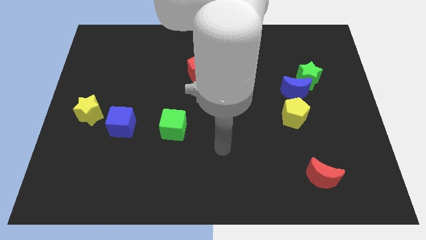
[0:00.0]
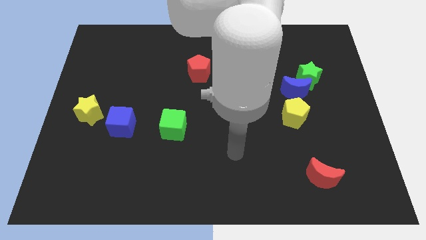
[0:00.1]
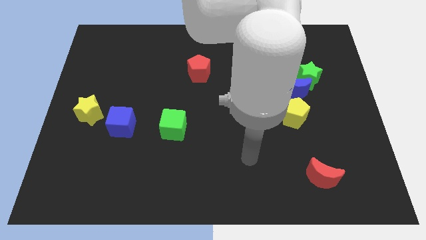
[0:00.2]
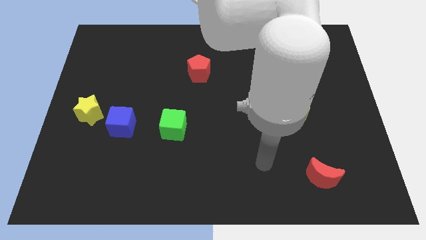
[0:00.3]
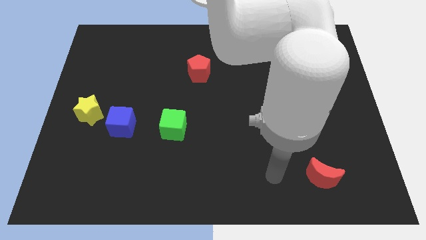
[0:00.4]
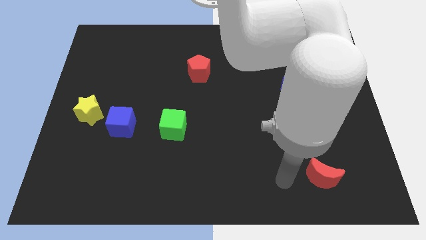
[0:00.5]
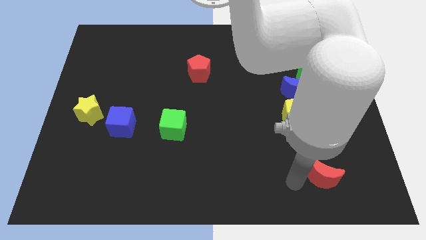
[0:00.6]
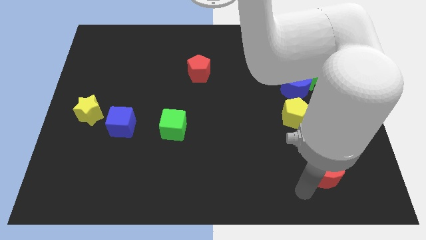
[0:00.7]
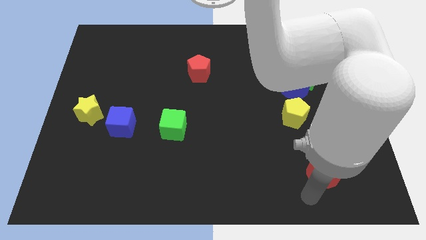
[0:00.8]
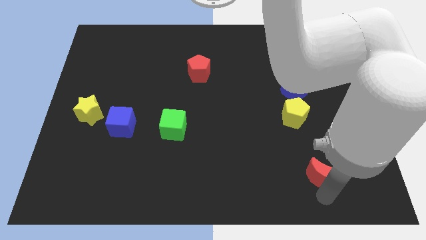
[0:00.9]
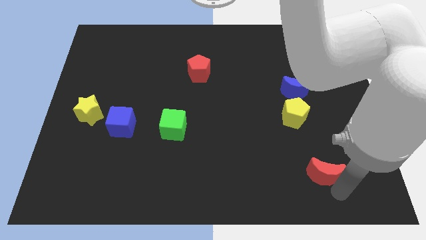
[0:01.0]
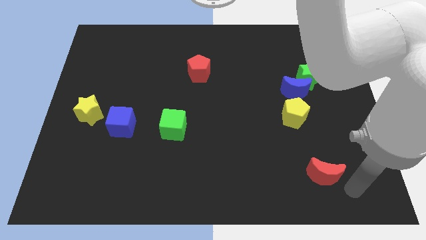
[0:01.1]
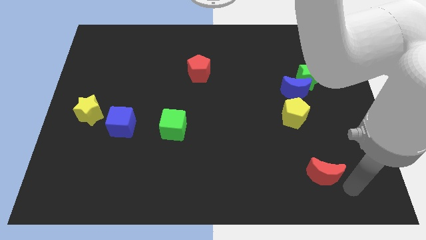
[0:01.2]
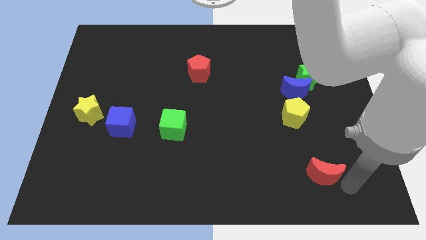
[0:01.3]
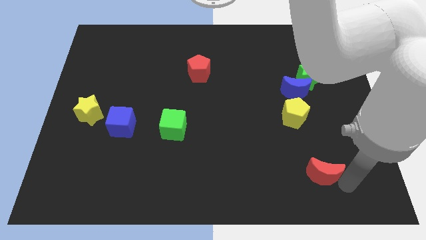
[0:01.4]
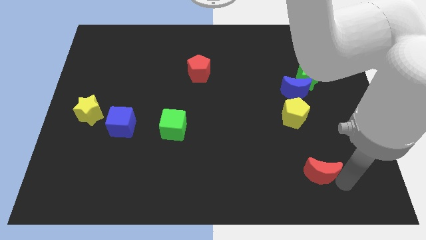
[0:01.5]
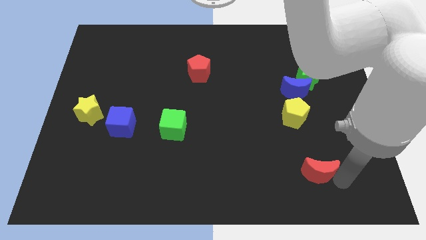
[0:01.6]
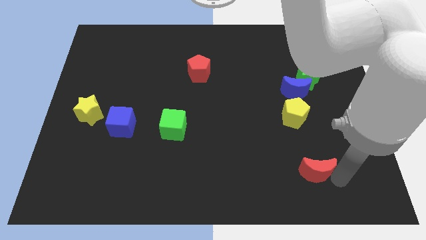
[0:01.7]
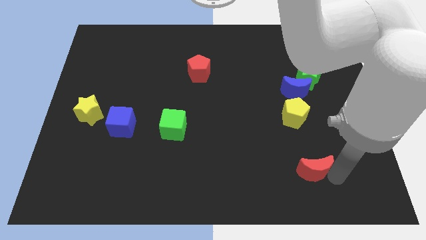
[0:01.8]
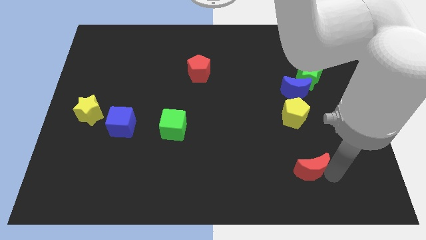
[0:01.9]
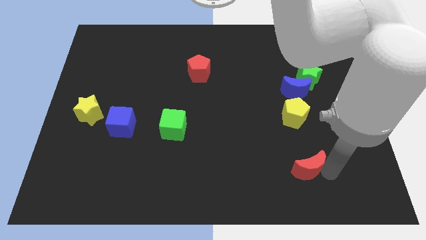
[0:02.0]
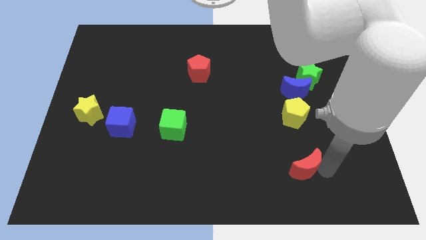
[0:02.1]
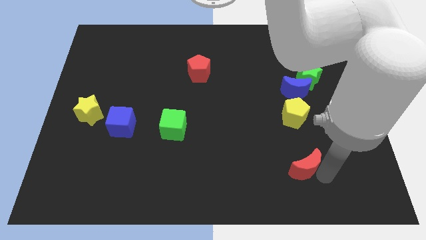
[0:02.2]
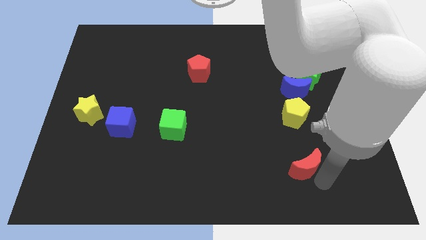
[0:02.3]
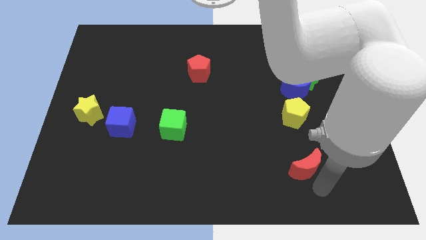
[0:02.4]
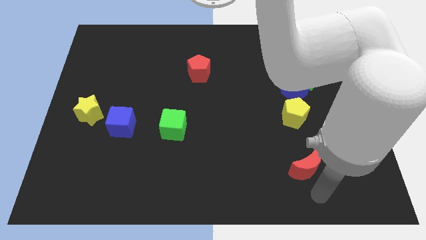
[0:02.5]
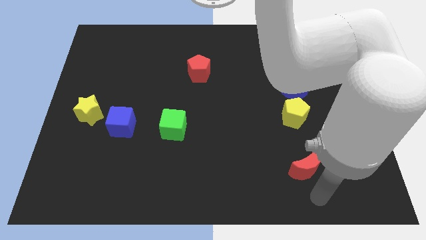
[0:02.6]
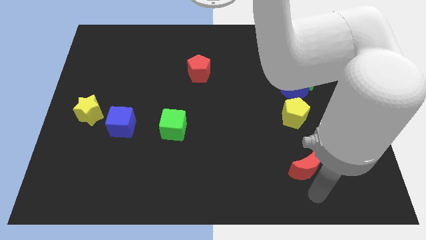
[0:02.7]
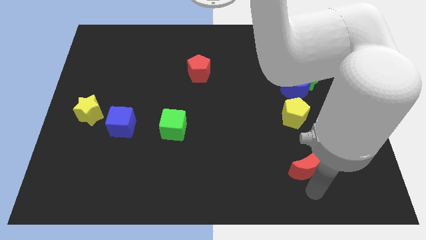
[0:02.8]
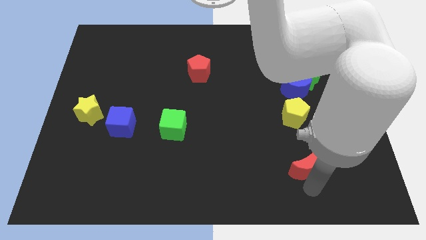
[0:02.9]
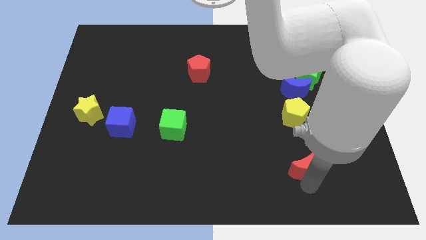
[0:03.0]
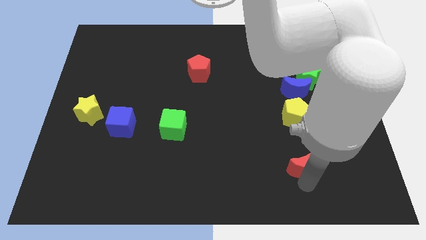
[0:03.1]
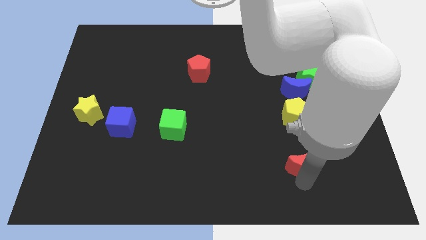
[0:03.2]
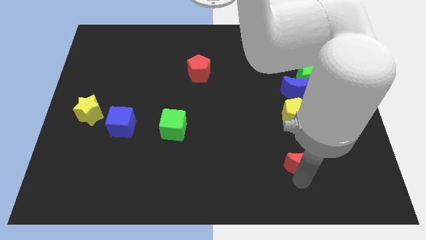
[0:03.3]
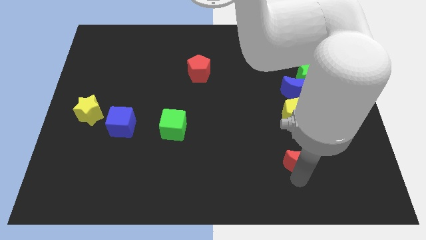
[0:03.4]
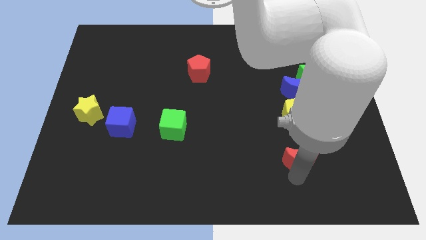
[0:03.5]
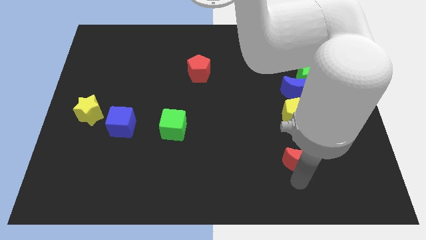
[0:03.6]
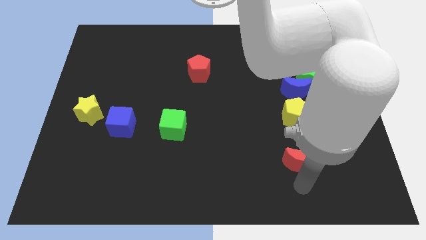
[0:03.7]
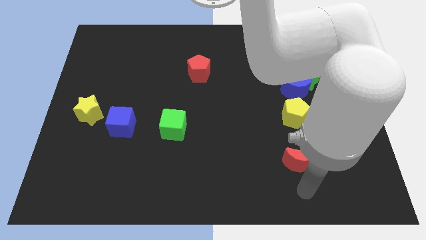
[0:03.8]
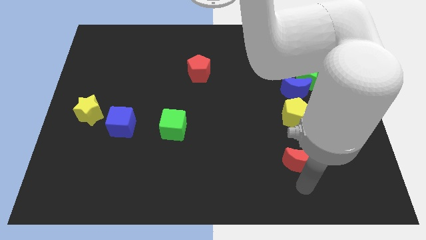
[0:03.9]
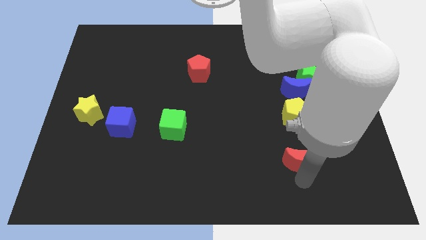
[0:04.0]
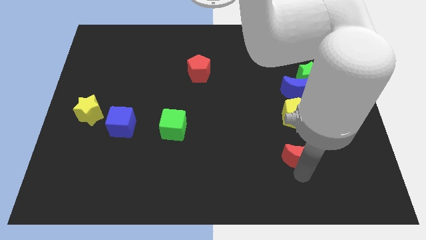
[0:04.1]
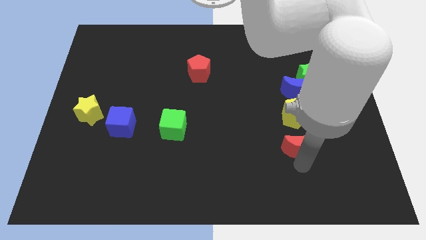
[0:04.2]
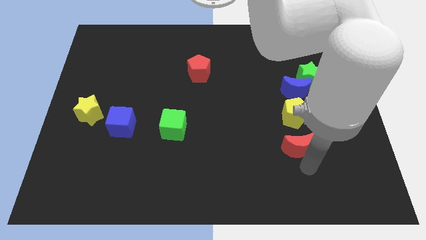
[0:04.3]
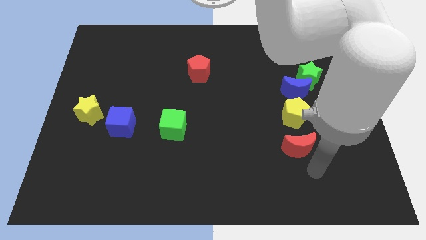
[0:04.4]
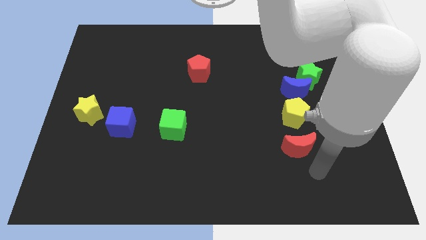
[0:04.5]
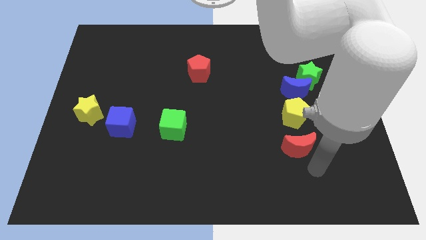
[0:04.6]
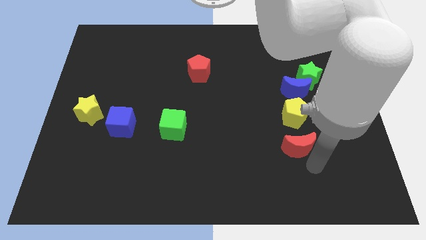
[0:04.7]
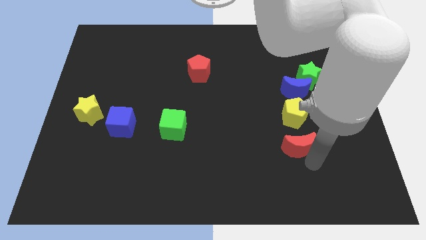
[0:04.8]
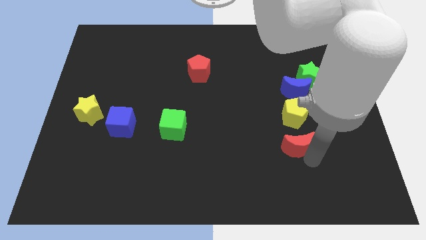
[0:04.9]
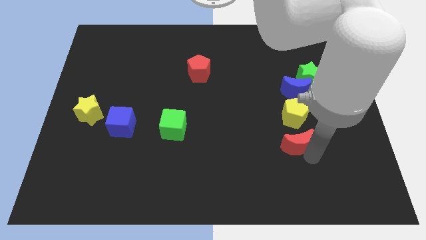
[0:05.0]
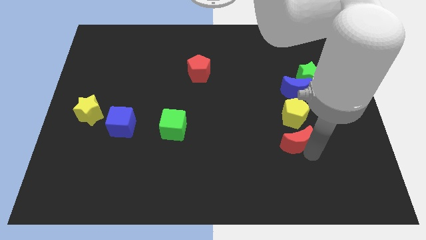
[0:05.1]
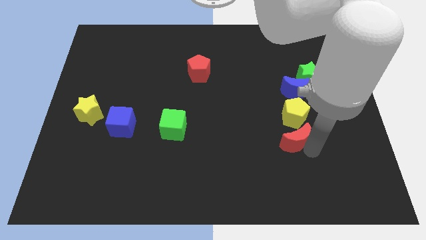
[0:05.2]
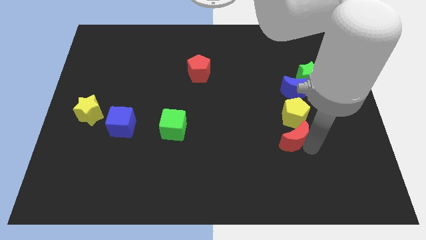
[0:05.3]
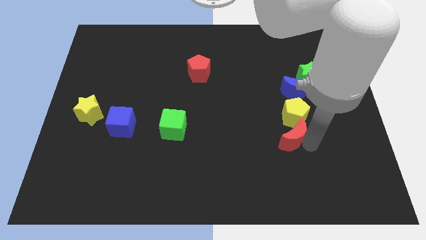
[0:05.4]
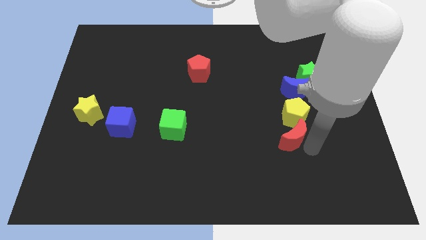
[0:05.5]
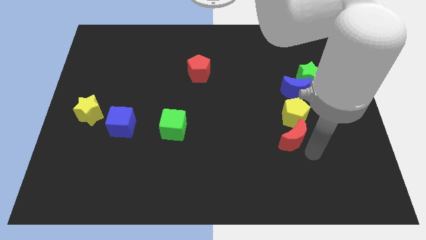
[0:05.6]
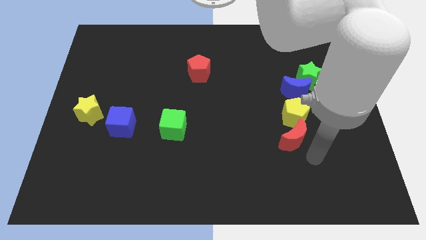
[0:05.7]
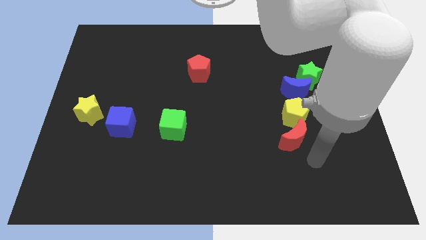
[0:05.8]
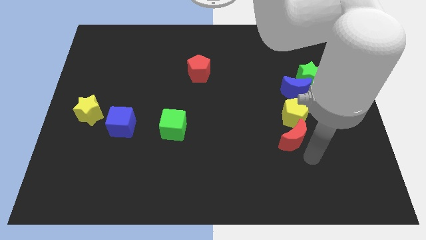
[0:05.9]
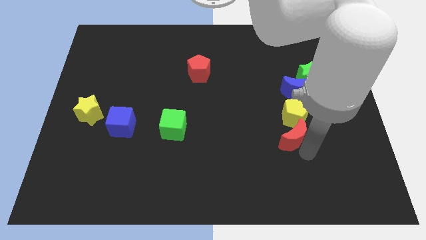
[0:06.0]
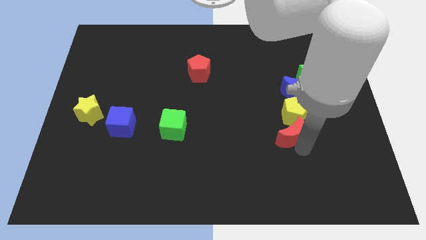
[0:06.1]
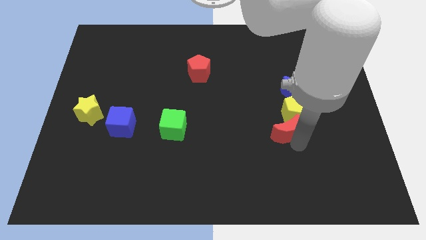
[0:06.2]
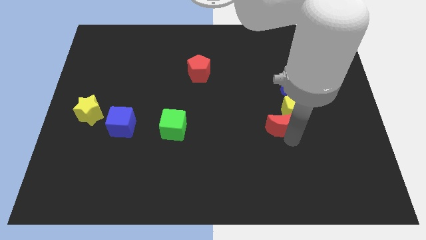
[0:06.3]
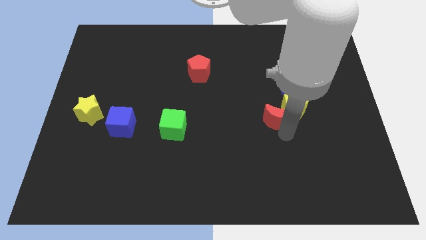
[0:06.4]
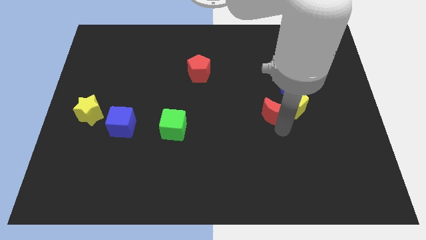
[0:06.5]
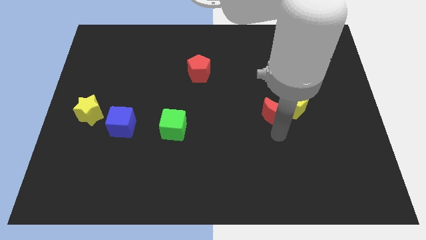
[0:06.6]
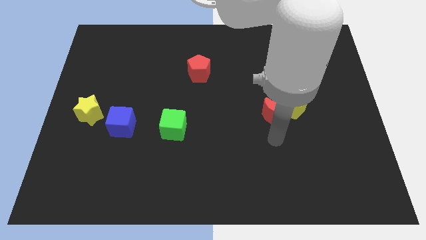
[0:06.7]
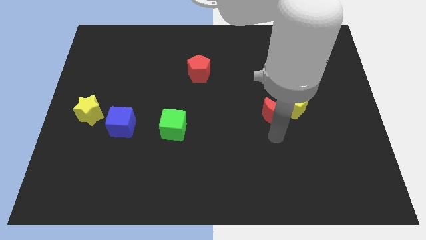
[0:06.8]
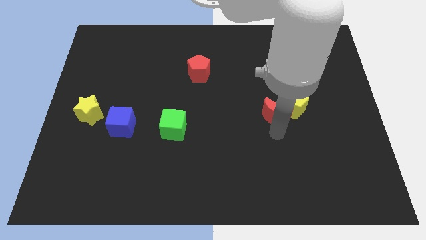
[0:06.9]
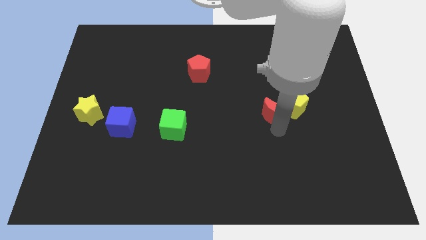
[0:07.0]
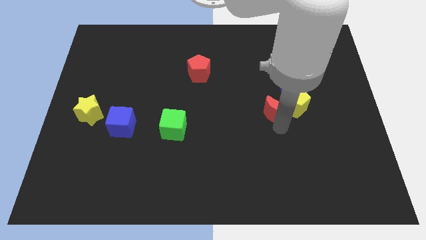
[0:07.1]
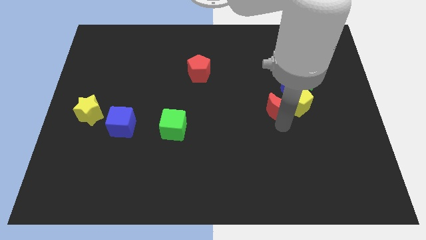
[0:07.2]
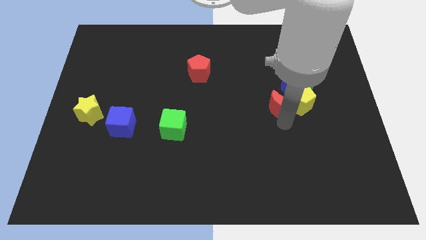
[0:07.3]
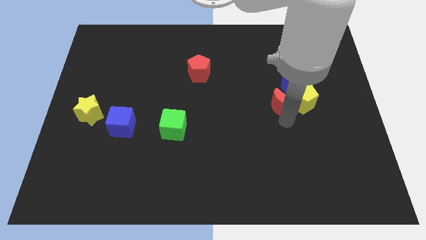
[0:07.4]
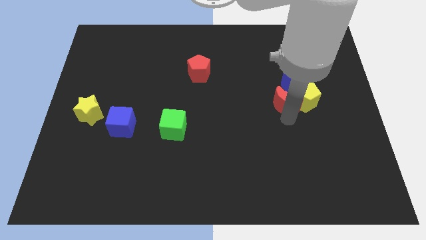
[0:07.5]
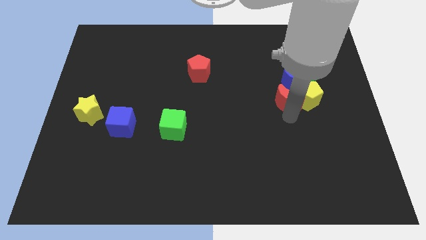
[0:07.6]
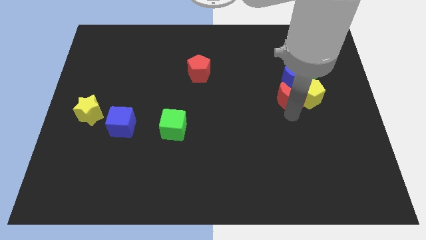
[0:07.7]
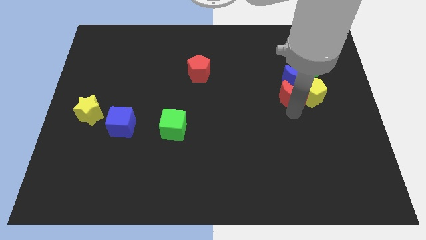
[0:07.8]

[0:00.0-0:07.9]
push the red moon up

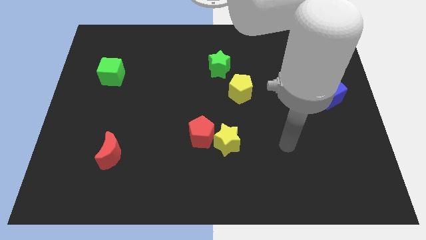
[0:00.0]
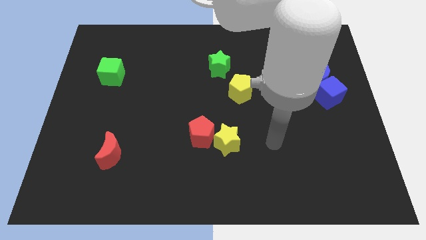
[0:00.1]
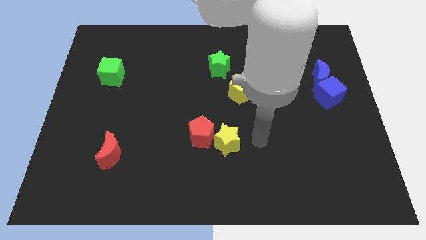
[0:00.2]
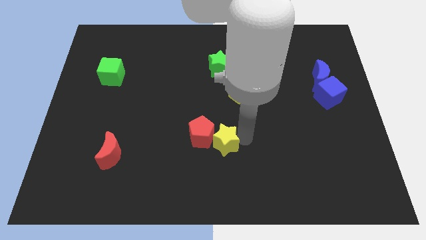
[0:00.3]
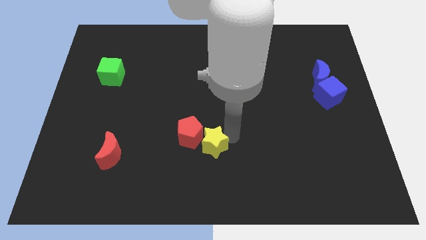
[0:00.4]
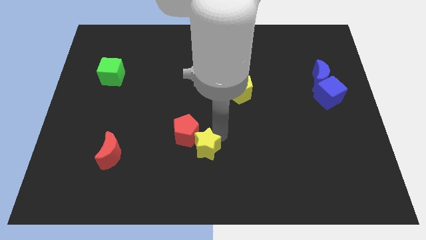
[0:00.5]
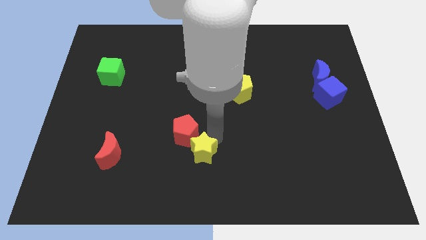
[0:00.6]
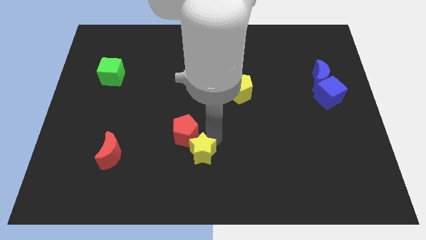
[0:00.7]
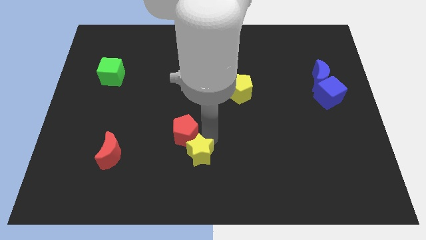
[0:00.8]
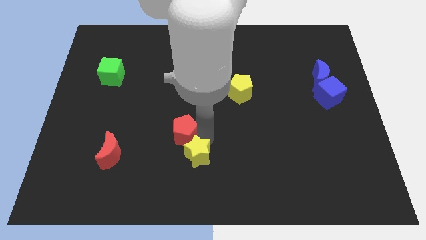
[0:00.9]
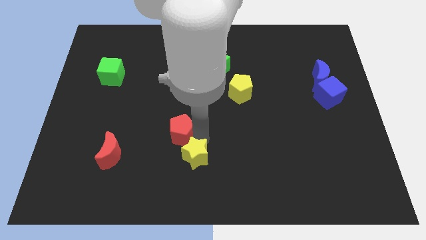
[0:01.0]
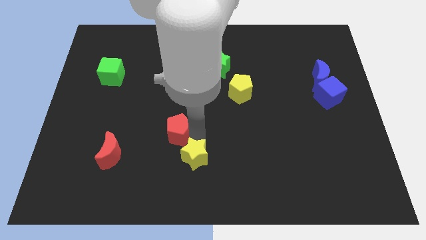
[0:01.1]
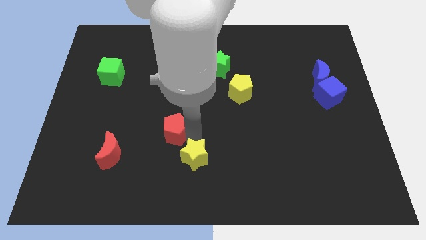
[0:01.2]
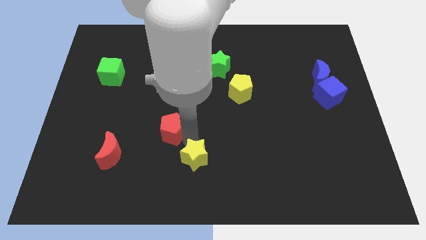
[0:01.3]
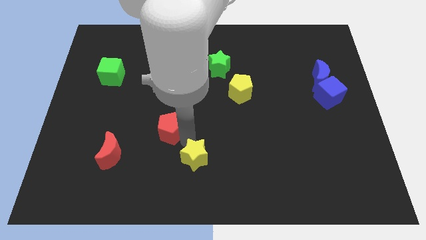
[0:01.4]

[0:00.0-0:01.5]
slide the red pentagon to the left somewhat
